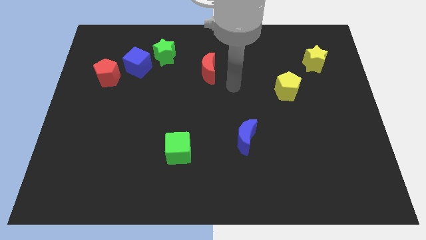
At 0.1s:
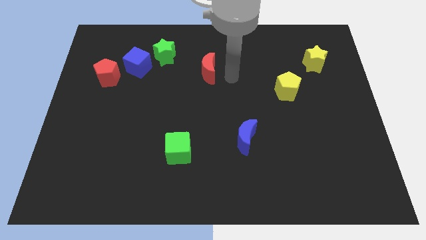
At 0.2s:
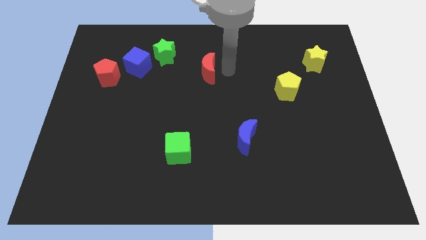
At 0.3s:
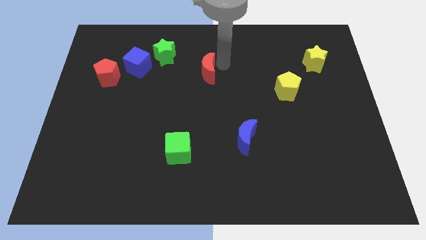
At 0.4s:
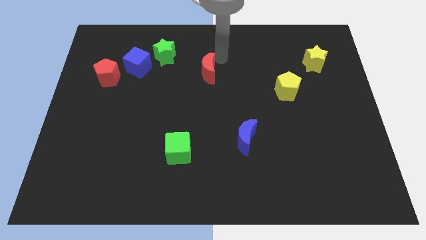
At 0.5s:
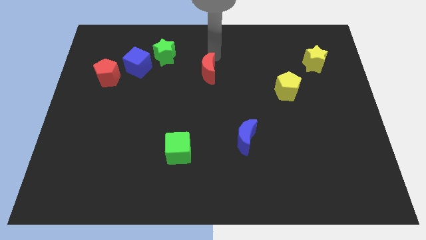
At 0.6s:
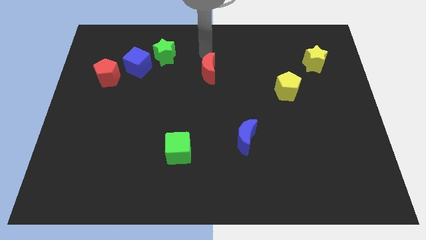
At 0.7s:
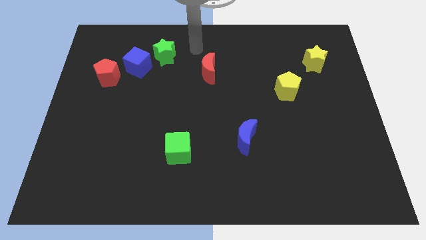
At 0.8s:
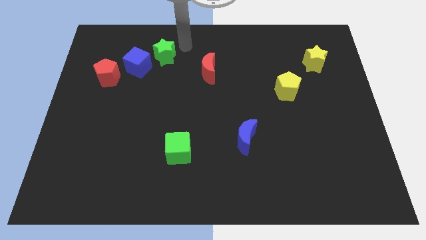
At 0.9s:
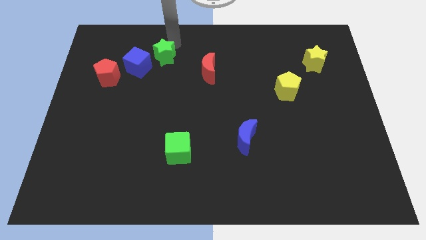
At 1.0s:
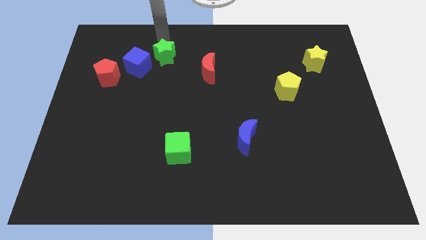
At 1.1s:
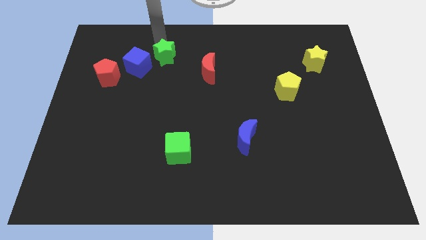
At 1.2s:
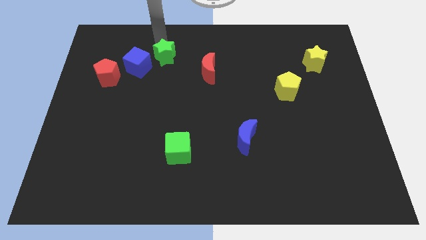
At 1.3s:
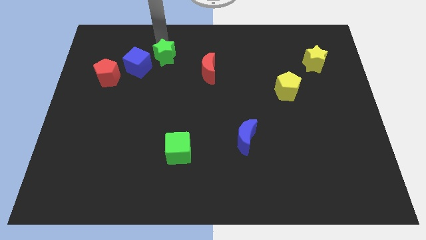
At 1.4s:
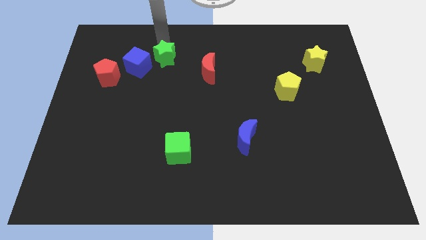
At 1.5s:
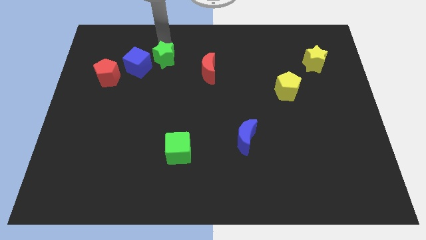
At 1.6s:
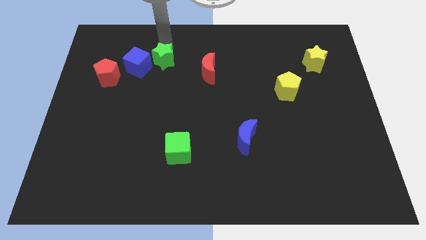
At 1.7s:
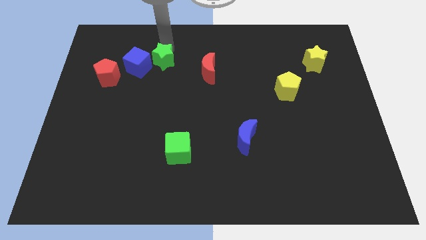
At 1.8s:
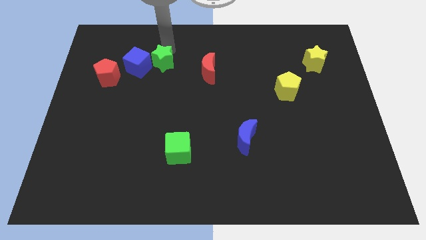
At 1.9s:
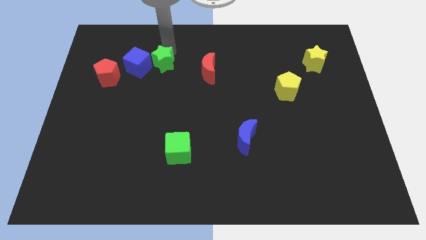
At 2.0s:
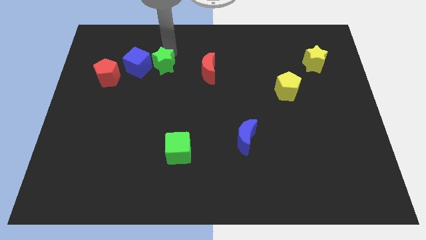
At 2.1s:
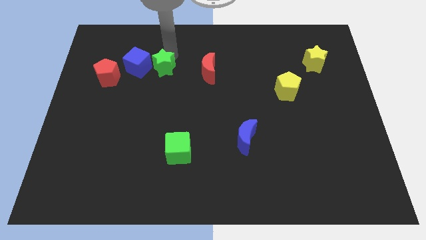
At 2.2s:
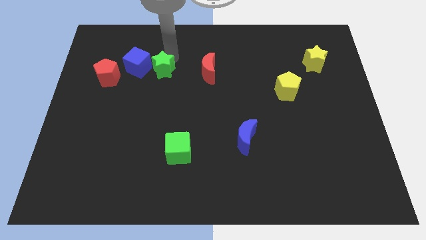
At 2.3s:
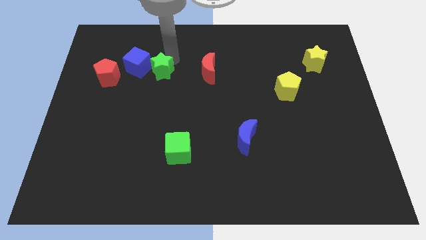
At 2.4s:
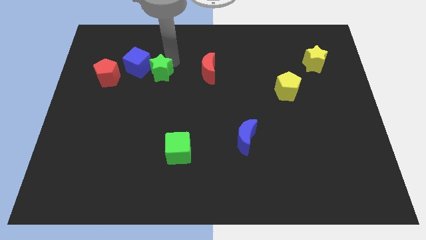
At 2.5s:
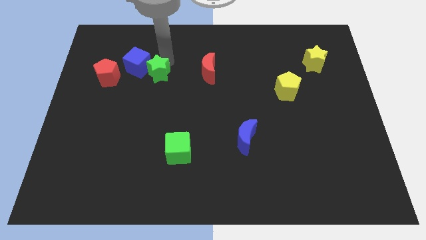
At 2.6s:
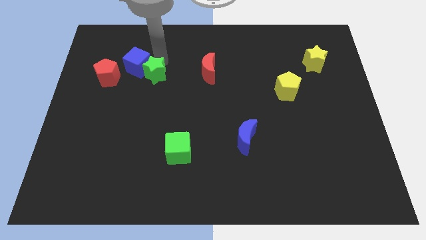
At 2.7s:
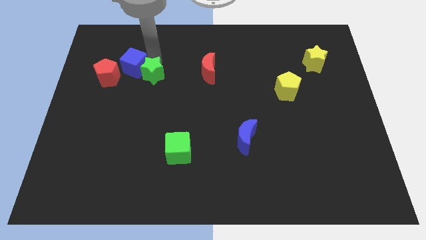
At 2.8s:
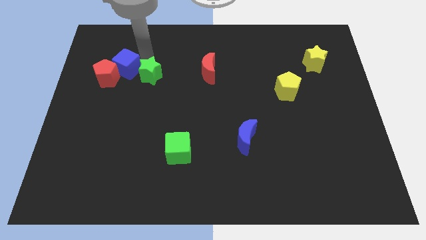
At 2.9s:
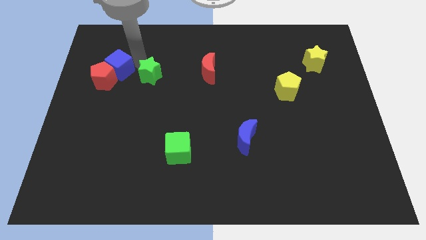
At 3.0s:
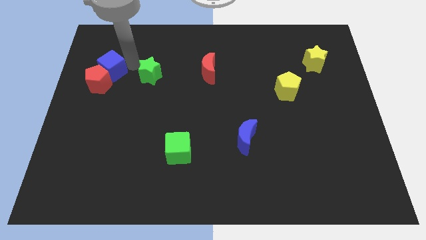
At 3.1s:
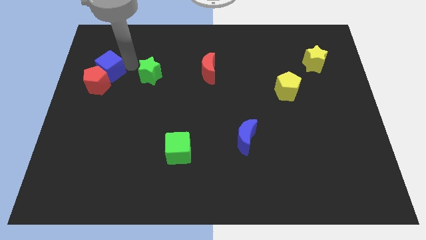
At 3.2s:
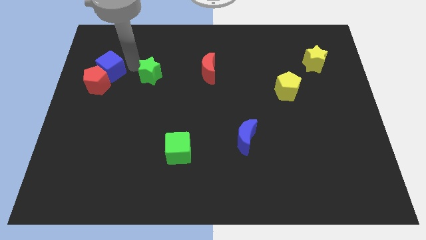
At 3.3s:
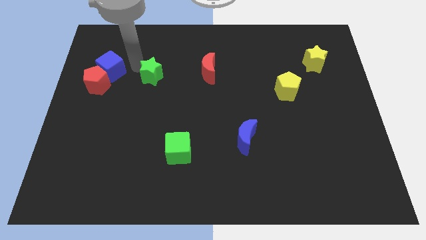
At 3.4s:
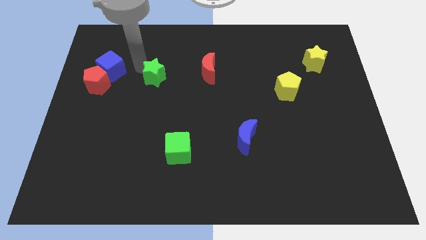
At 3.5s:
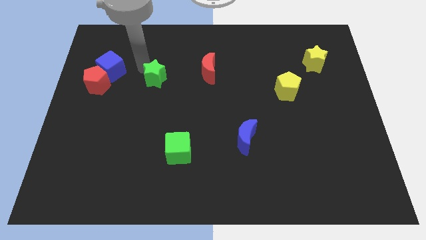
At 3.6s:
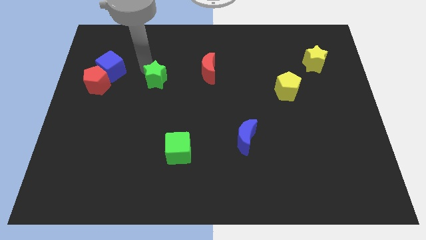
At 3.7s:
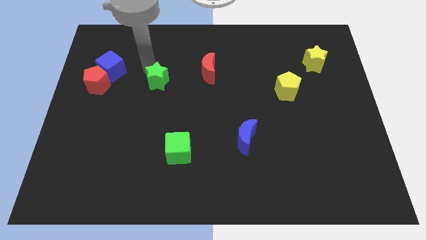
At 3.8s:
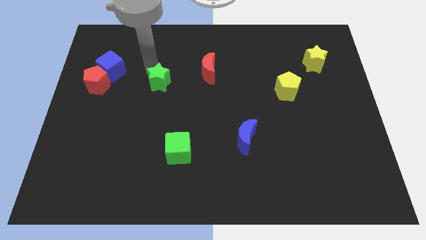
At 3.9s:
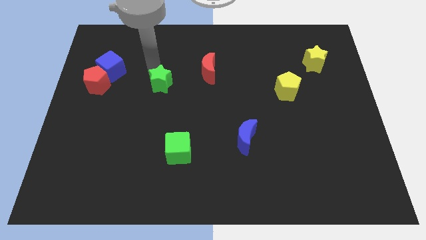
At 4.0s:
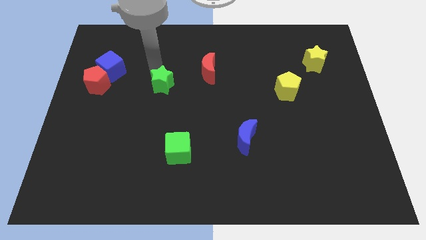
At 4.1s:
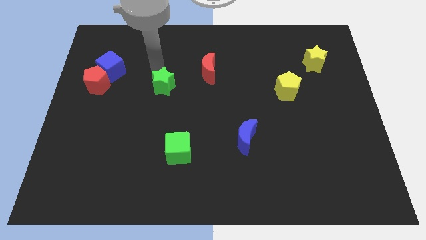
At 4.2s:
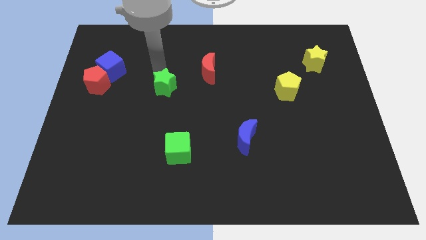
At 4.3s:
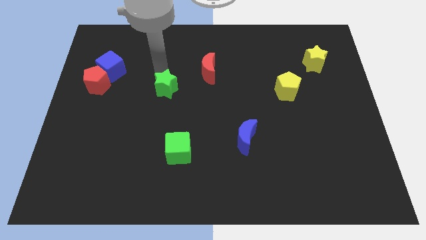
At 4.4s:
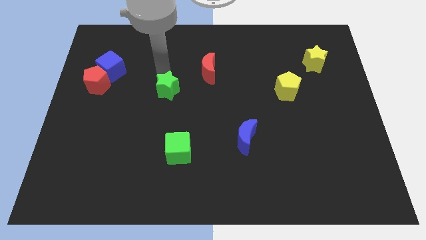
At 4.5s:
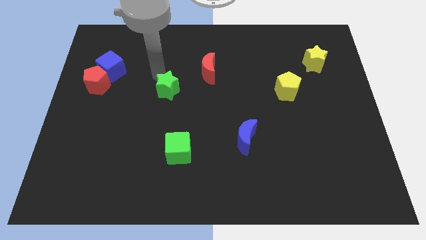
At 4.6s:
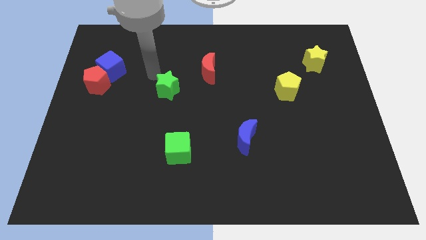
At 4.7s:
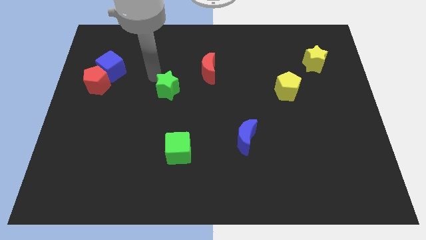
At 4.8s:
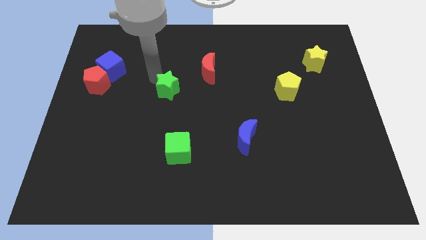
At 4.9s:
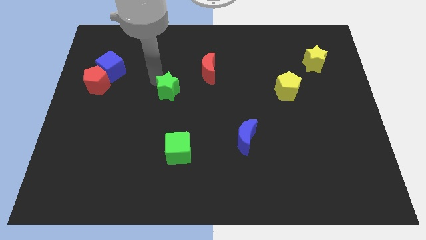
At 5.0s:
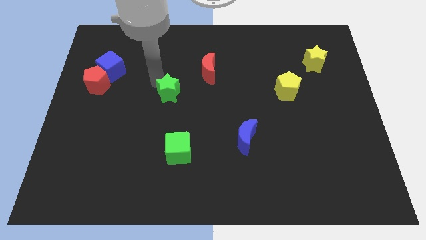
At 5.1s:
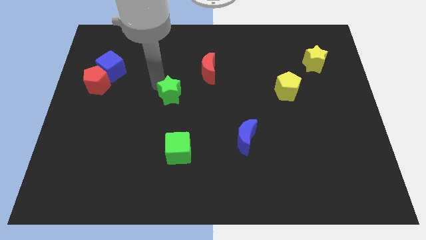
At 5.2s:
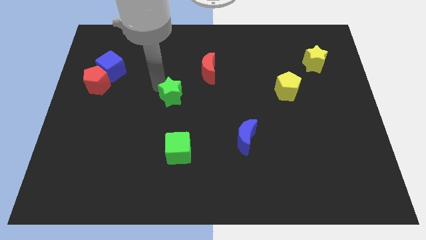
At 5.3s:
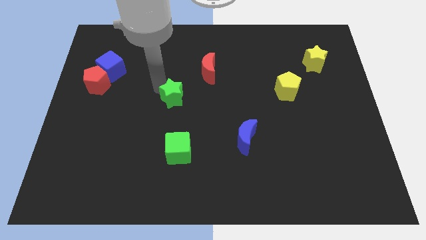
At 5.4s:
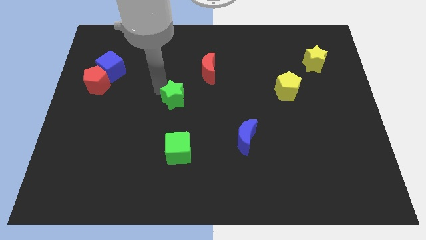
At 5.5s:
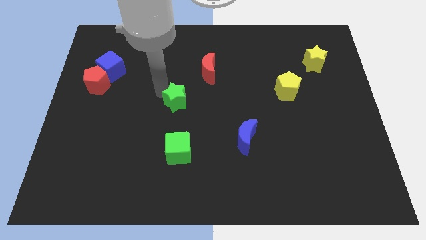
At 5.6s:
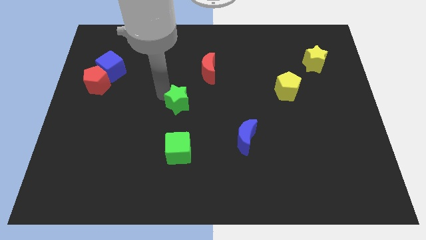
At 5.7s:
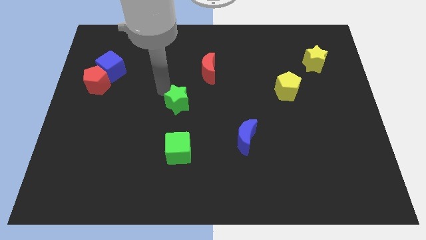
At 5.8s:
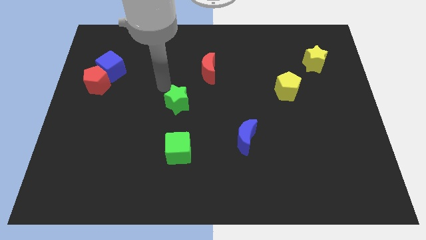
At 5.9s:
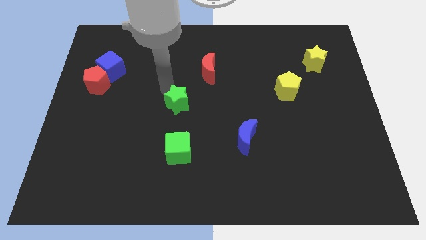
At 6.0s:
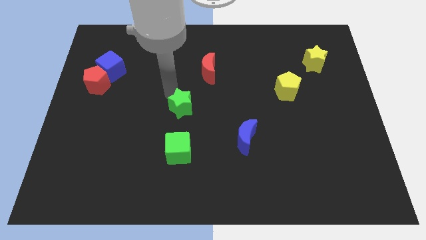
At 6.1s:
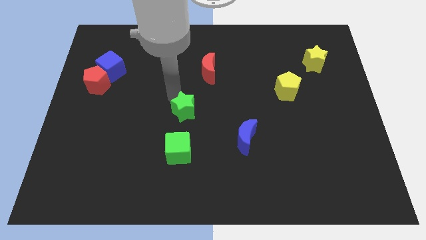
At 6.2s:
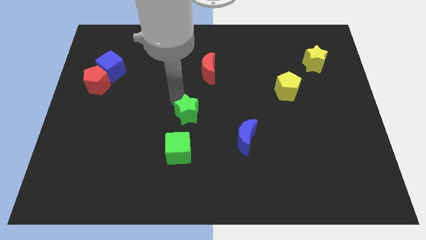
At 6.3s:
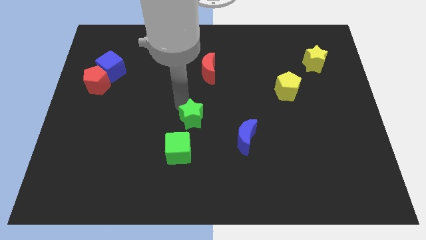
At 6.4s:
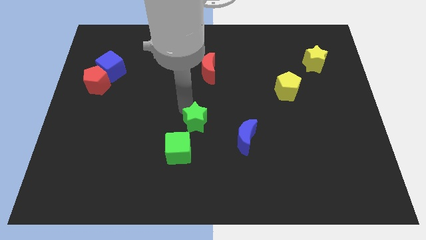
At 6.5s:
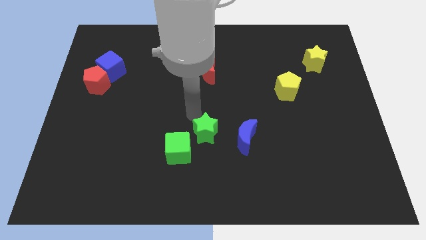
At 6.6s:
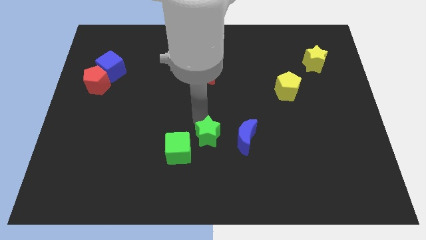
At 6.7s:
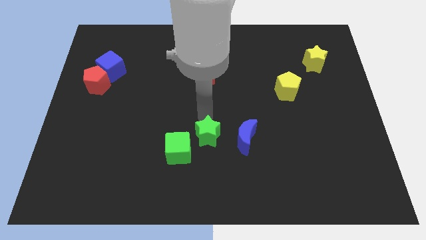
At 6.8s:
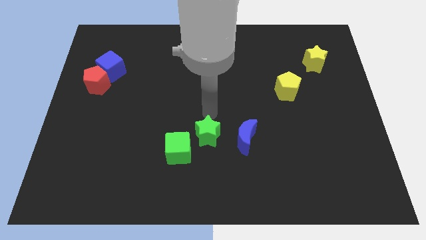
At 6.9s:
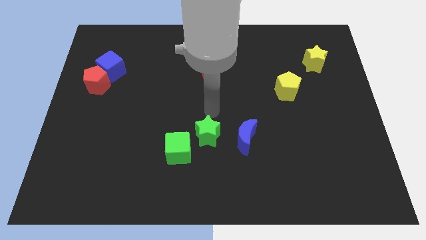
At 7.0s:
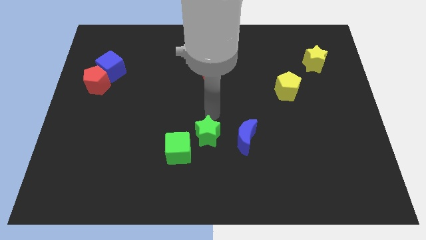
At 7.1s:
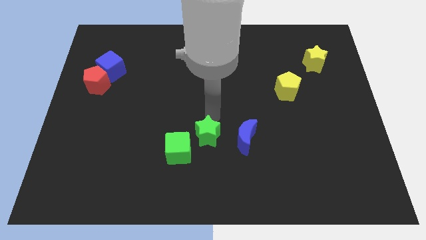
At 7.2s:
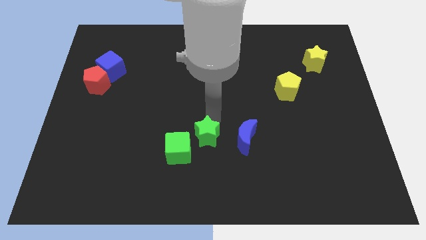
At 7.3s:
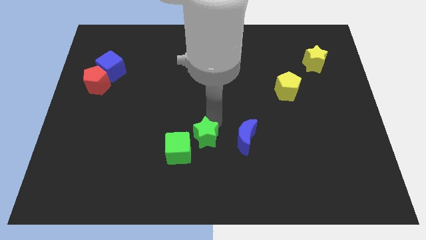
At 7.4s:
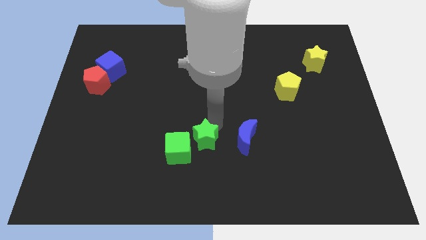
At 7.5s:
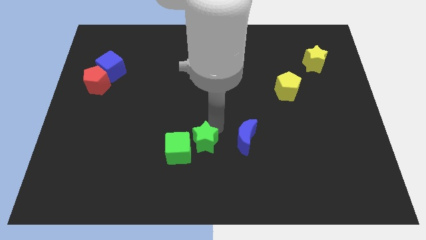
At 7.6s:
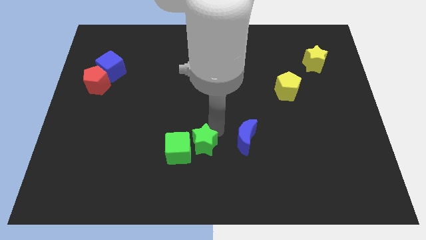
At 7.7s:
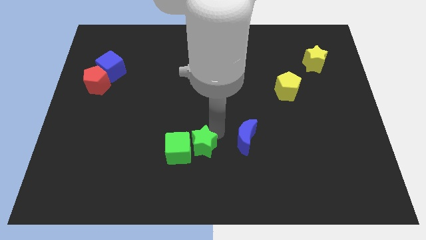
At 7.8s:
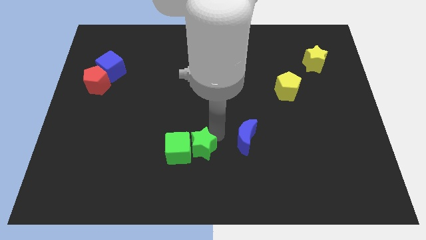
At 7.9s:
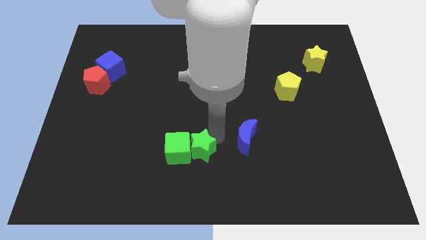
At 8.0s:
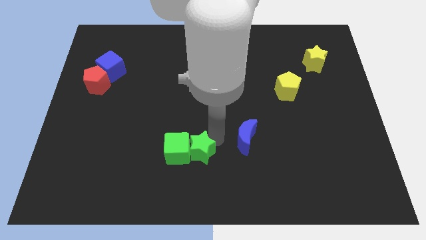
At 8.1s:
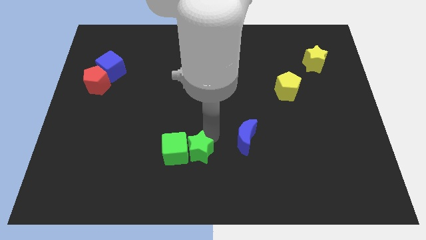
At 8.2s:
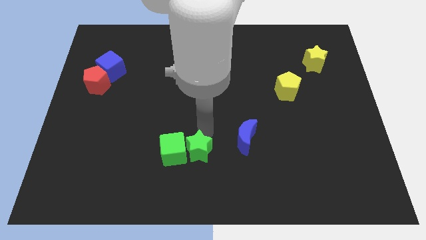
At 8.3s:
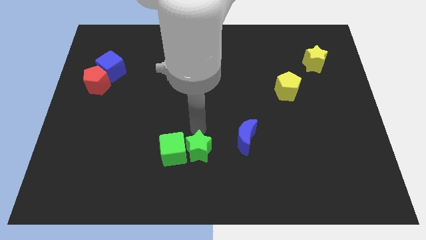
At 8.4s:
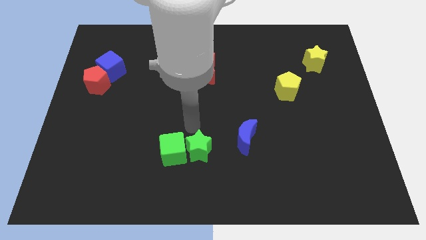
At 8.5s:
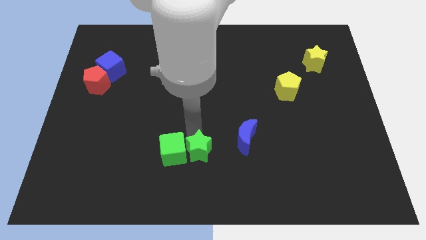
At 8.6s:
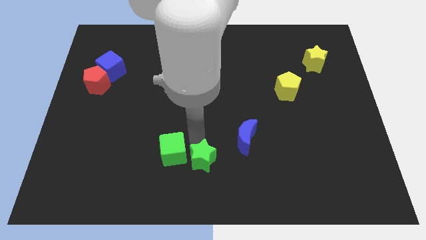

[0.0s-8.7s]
slide the green star to the bottom
